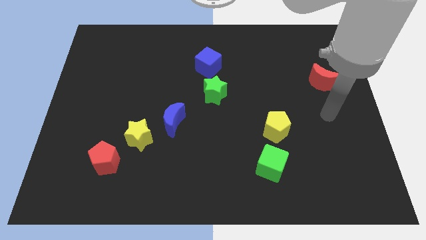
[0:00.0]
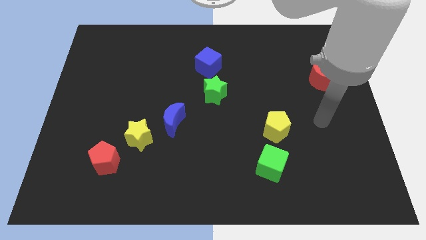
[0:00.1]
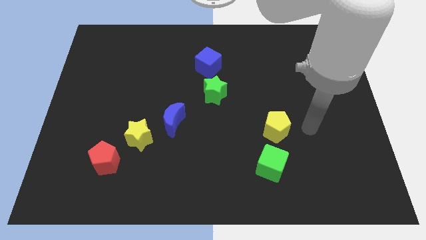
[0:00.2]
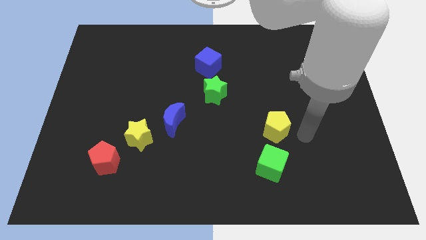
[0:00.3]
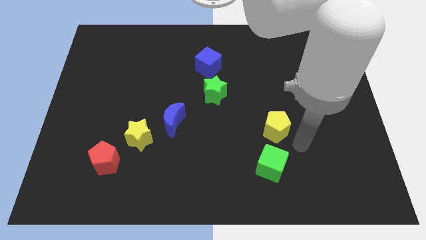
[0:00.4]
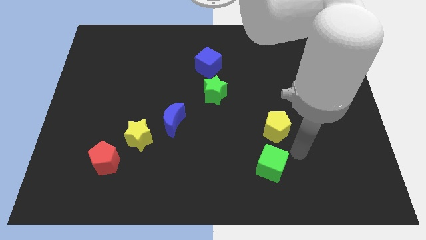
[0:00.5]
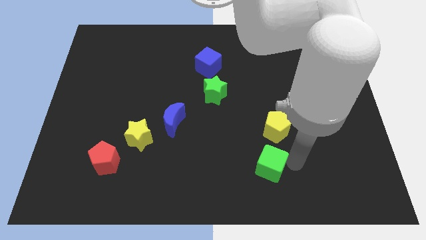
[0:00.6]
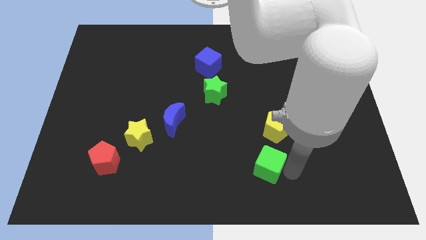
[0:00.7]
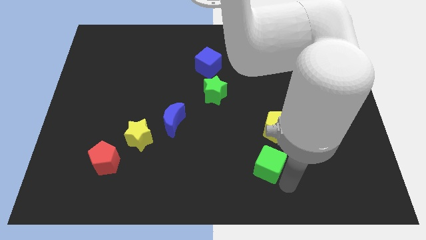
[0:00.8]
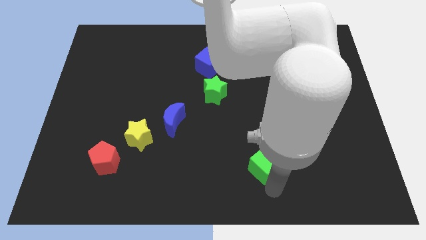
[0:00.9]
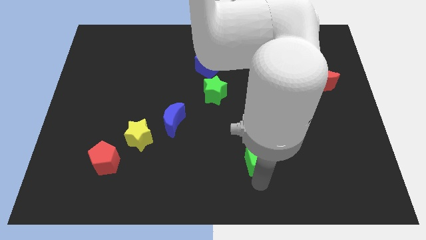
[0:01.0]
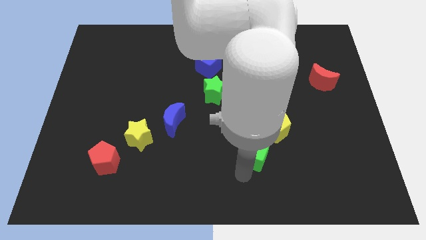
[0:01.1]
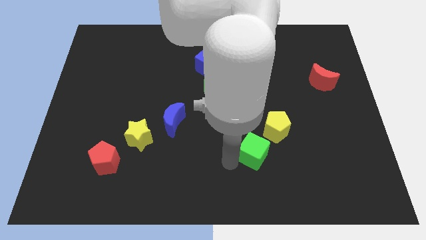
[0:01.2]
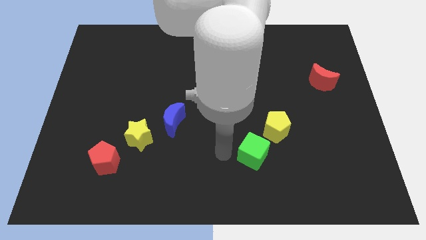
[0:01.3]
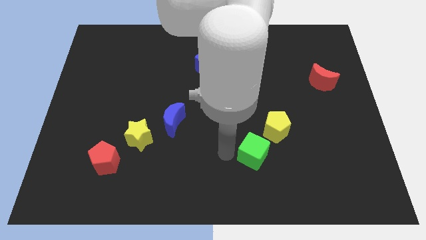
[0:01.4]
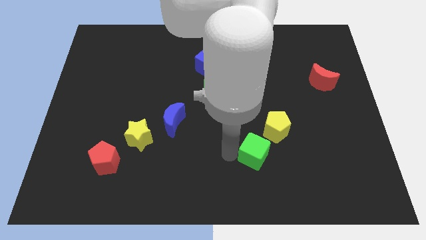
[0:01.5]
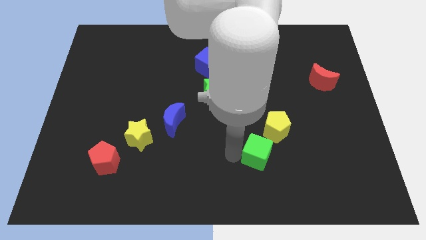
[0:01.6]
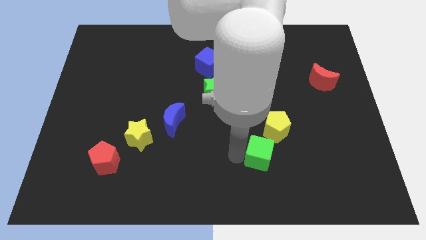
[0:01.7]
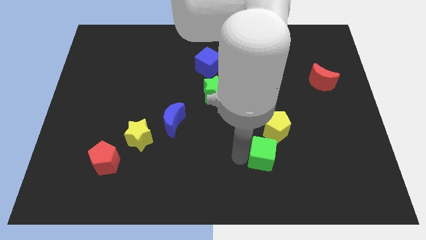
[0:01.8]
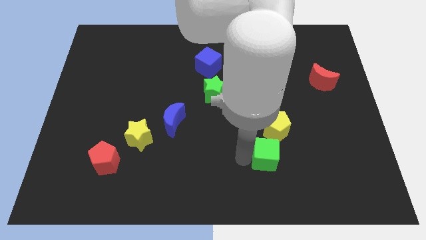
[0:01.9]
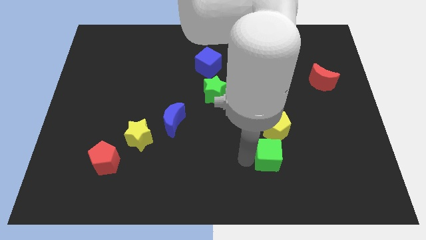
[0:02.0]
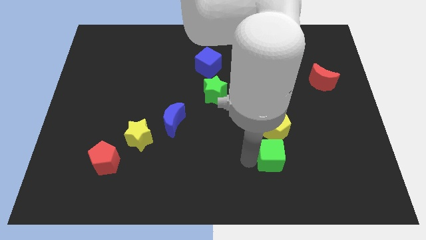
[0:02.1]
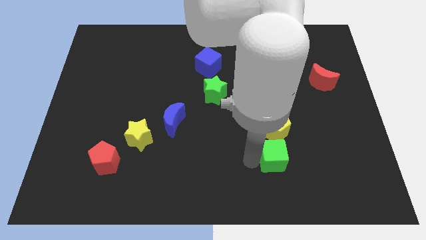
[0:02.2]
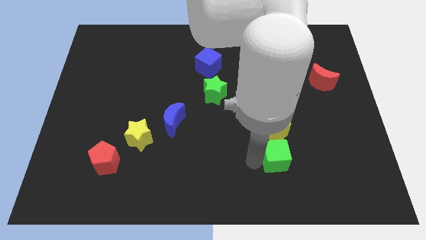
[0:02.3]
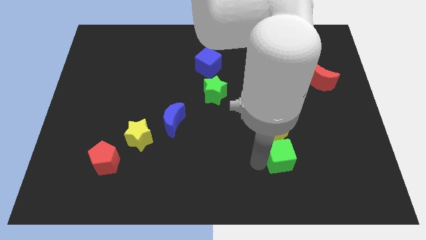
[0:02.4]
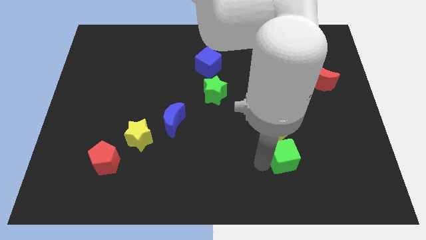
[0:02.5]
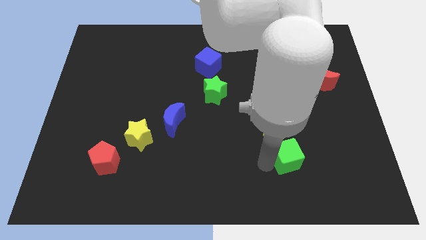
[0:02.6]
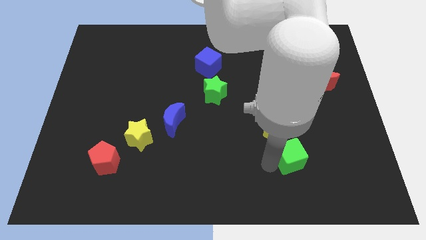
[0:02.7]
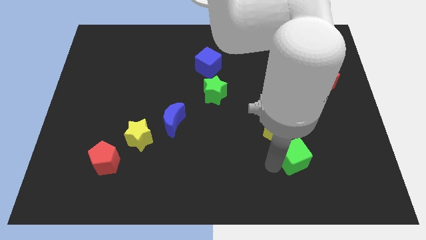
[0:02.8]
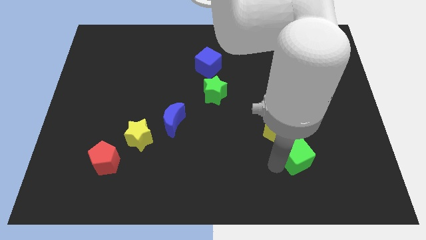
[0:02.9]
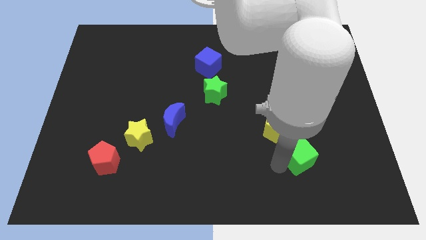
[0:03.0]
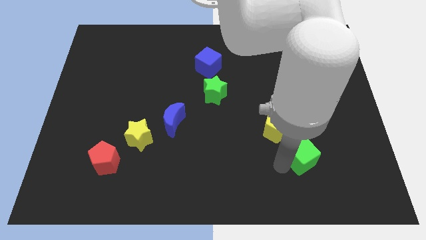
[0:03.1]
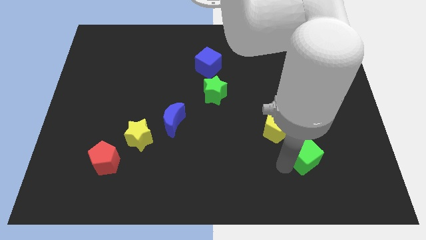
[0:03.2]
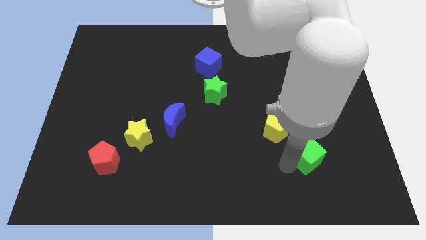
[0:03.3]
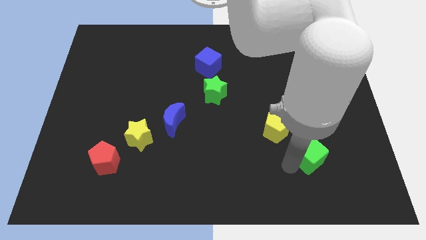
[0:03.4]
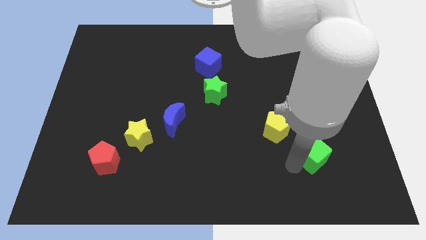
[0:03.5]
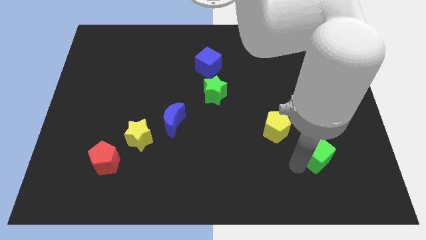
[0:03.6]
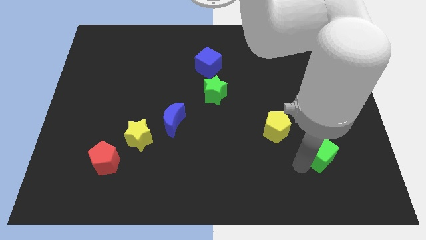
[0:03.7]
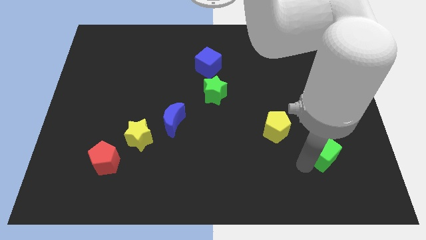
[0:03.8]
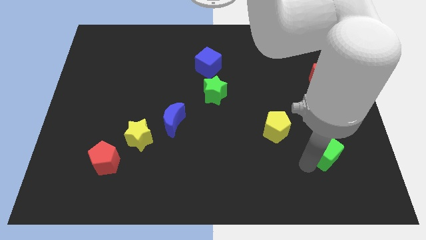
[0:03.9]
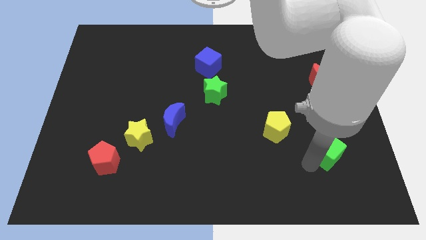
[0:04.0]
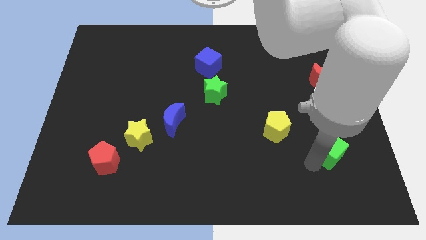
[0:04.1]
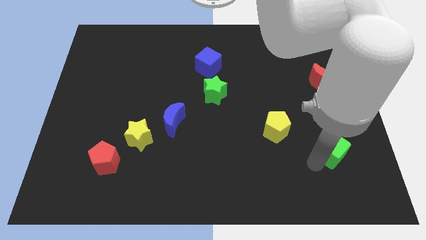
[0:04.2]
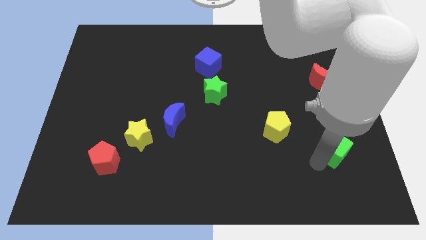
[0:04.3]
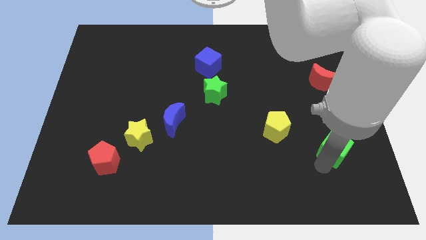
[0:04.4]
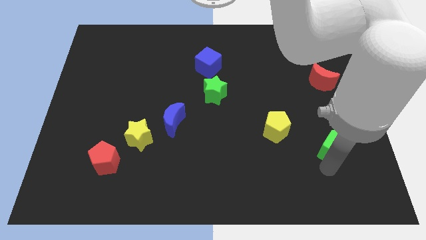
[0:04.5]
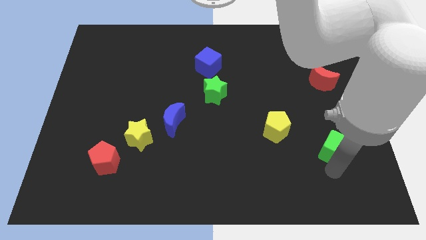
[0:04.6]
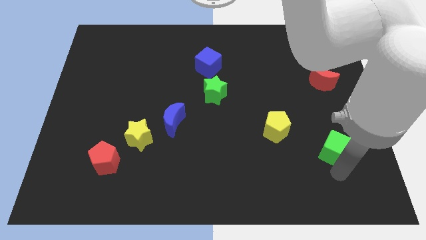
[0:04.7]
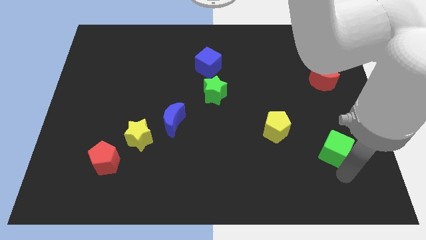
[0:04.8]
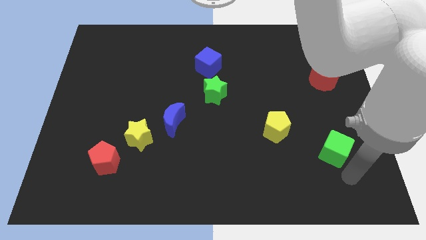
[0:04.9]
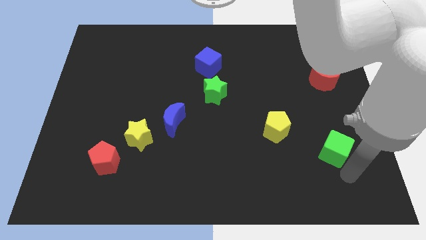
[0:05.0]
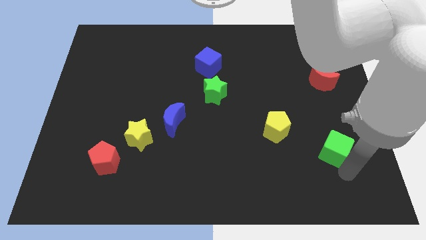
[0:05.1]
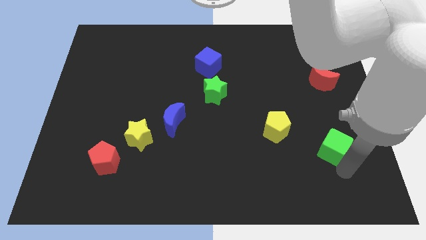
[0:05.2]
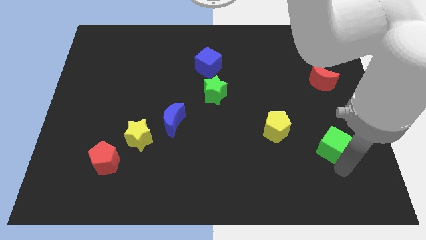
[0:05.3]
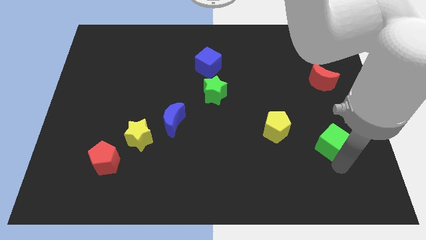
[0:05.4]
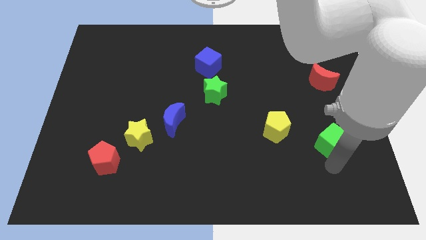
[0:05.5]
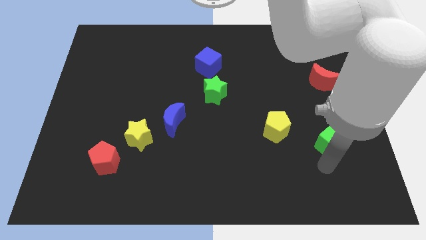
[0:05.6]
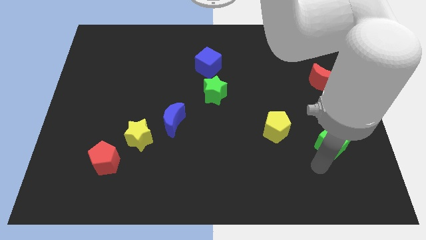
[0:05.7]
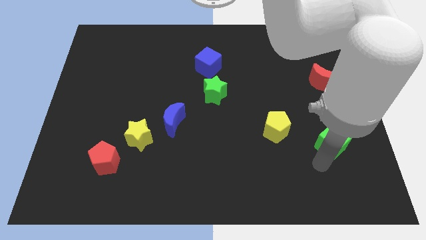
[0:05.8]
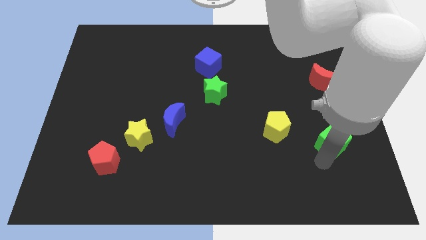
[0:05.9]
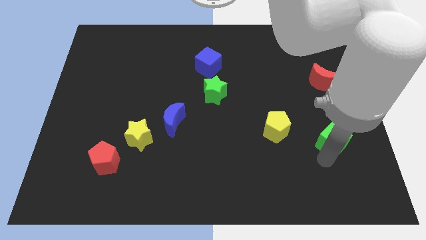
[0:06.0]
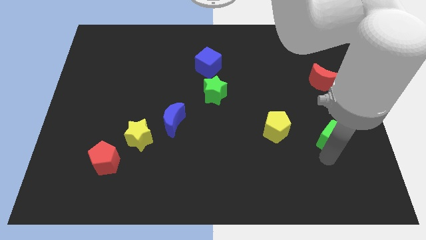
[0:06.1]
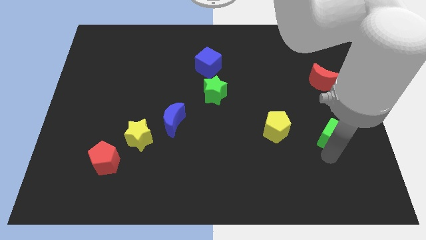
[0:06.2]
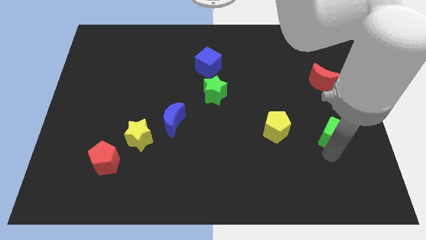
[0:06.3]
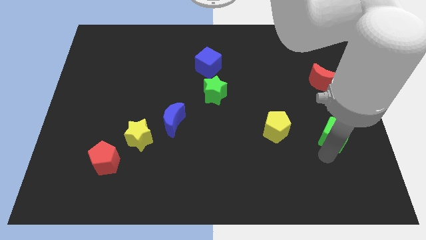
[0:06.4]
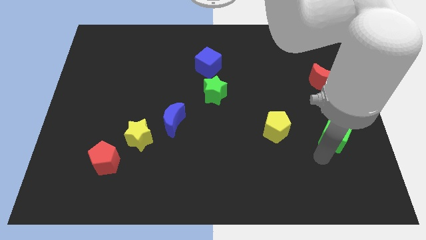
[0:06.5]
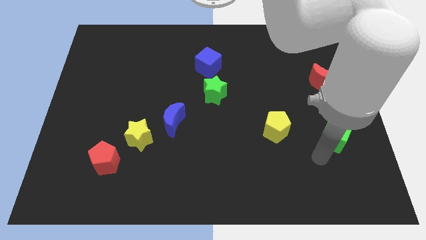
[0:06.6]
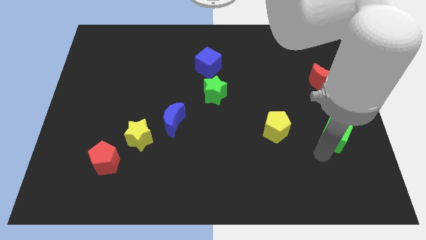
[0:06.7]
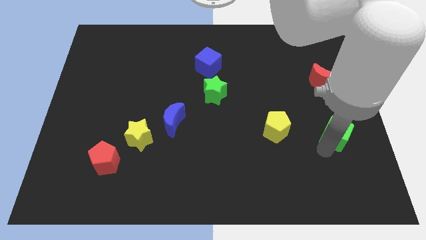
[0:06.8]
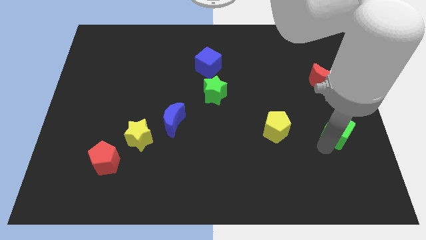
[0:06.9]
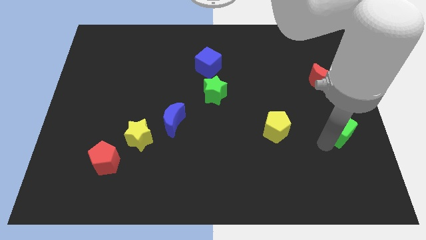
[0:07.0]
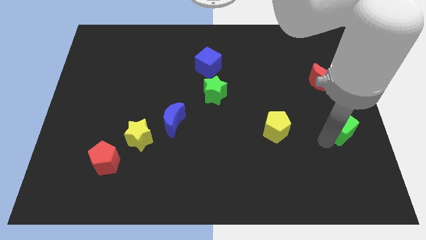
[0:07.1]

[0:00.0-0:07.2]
slide the green cube to the right side of the board
